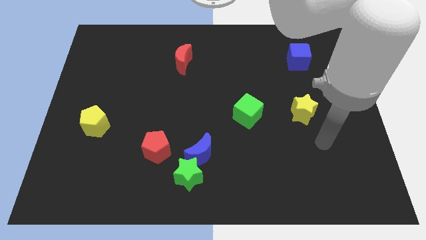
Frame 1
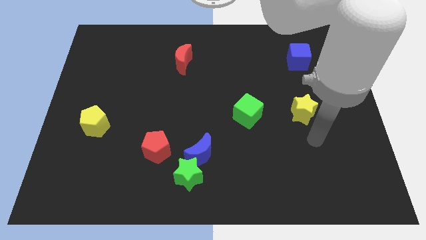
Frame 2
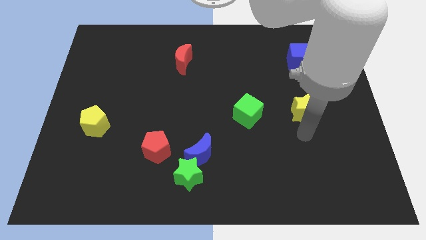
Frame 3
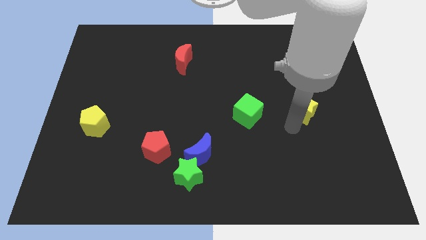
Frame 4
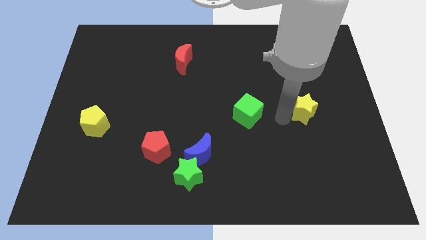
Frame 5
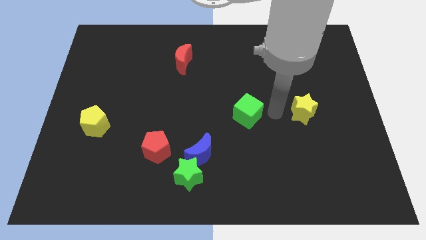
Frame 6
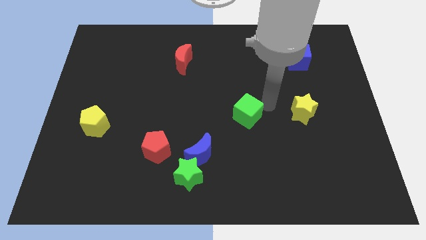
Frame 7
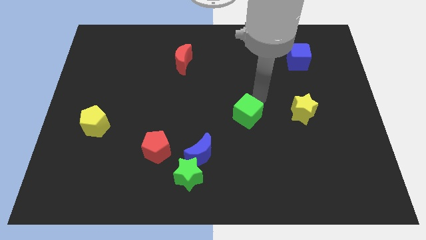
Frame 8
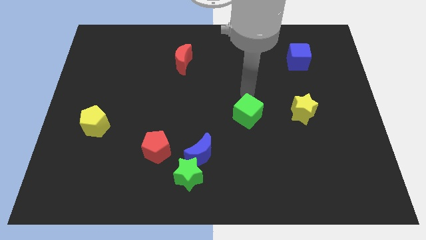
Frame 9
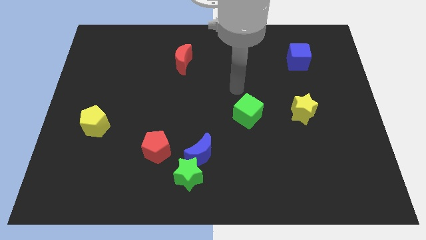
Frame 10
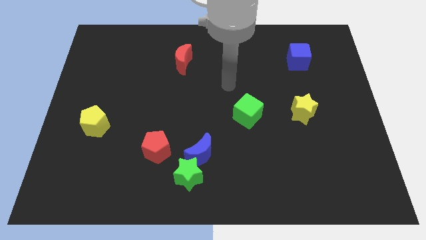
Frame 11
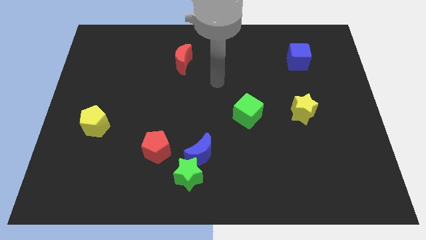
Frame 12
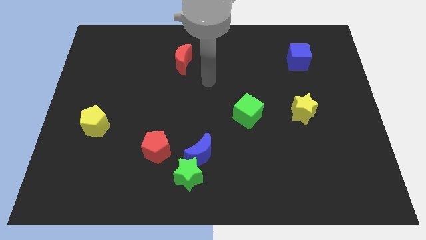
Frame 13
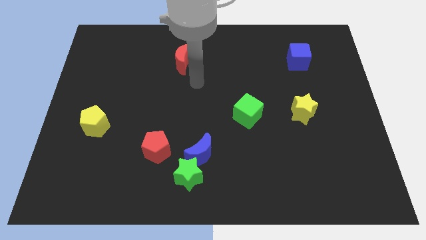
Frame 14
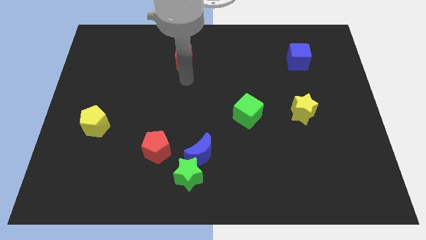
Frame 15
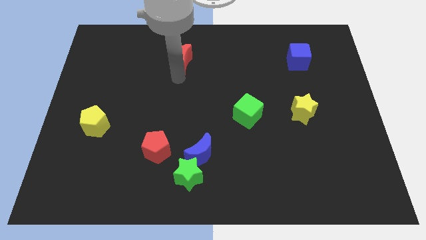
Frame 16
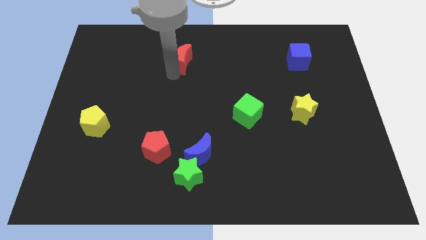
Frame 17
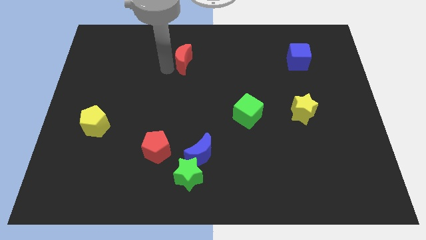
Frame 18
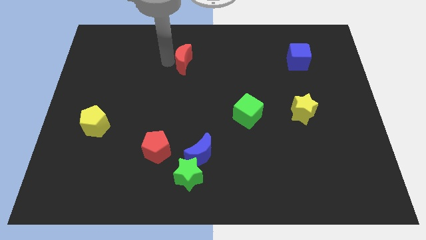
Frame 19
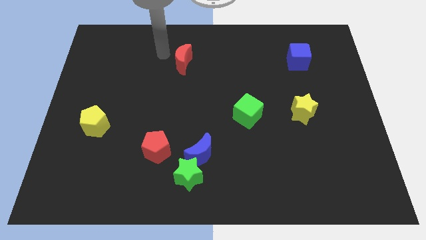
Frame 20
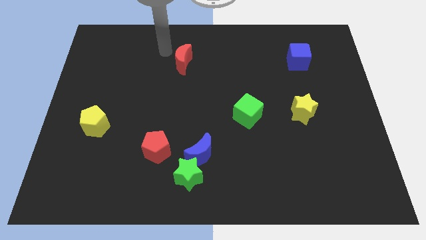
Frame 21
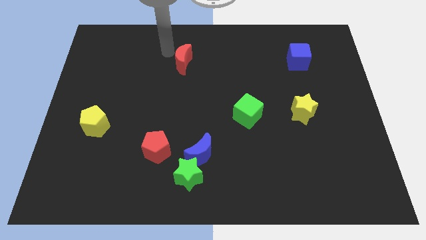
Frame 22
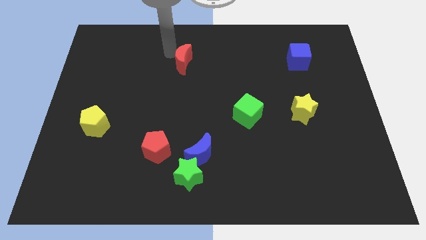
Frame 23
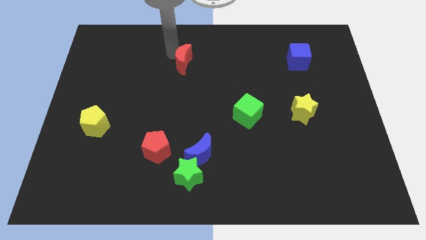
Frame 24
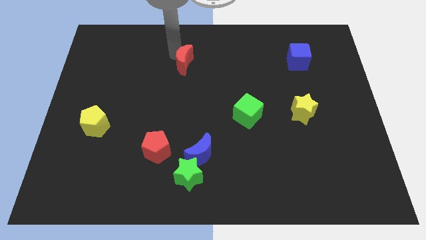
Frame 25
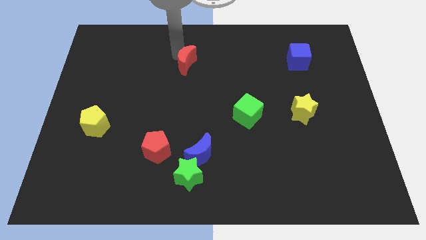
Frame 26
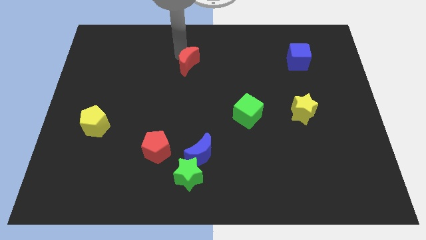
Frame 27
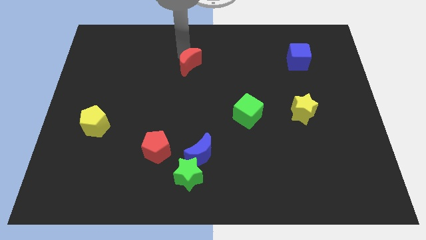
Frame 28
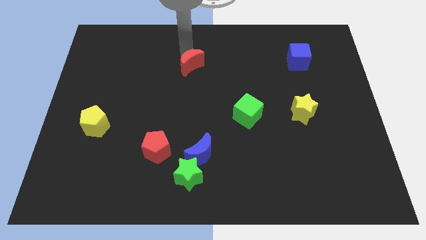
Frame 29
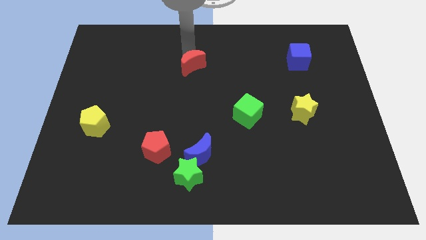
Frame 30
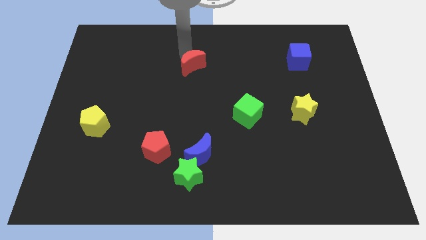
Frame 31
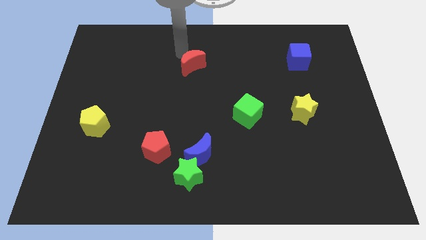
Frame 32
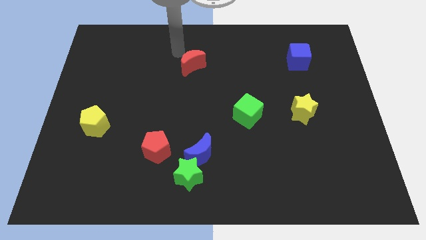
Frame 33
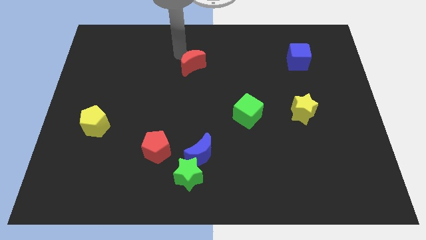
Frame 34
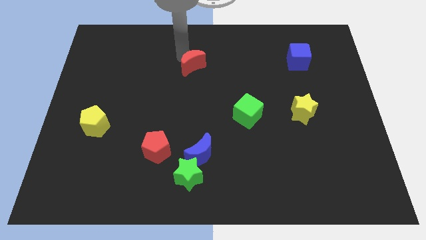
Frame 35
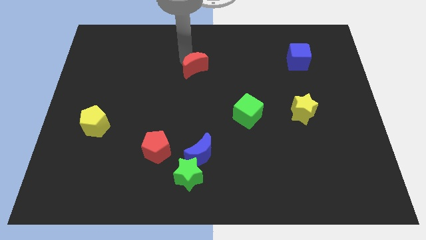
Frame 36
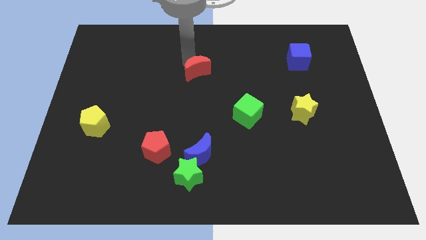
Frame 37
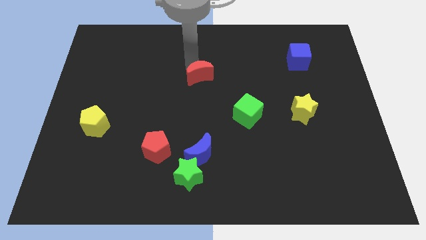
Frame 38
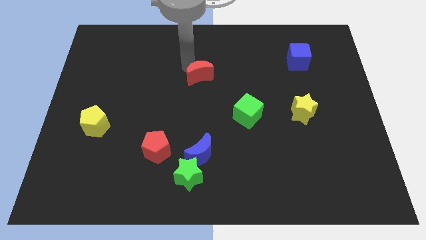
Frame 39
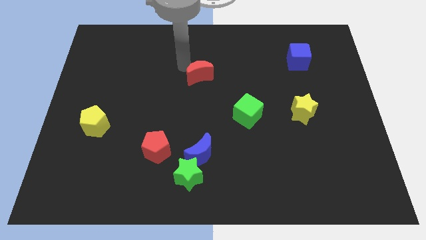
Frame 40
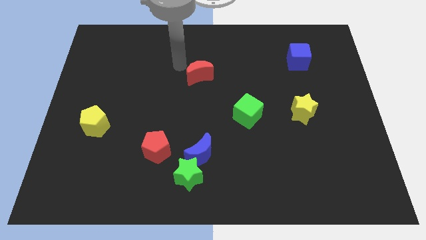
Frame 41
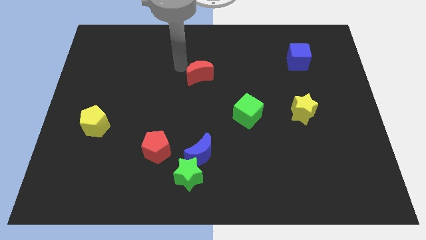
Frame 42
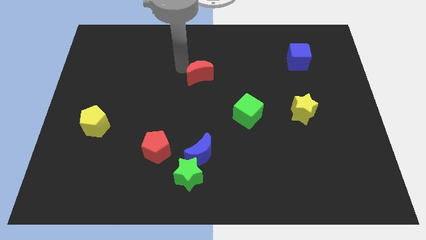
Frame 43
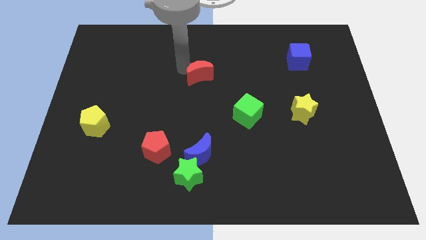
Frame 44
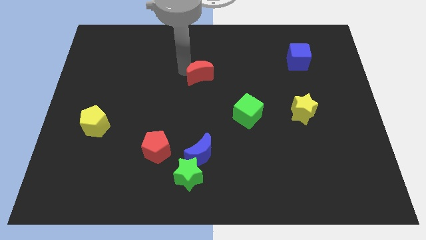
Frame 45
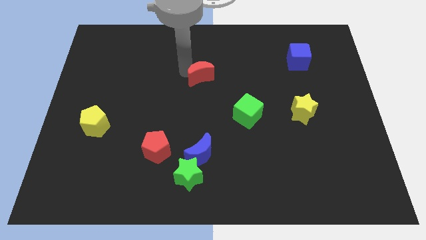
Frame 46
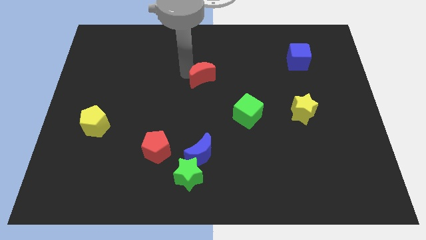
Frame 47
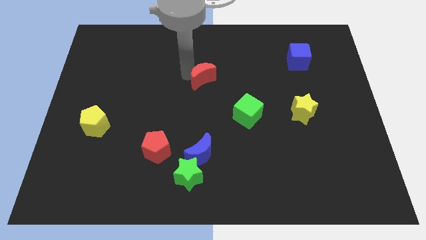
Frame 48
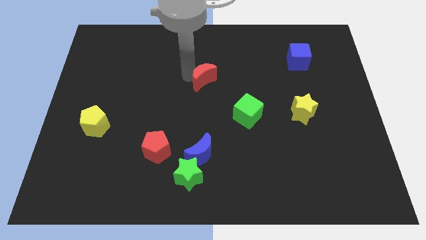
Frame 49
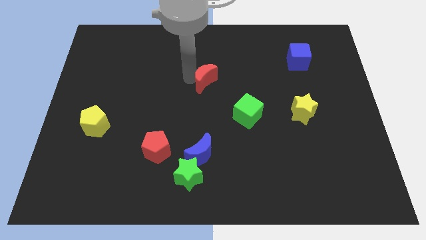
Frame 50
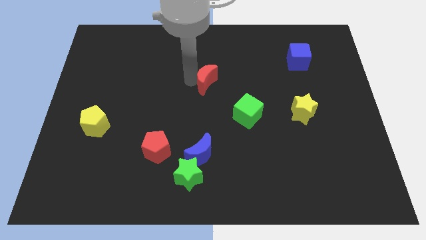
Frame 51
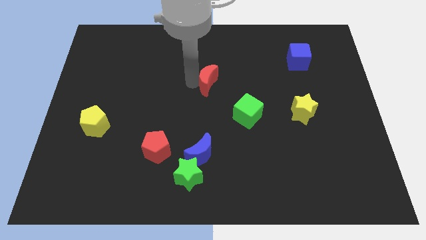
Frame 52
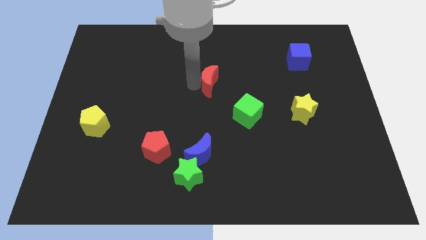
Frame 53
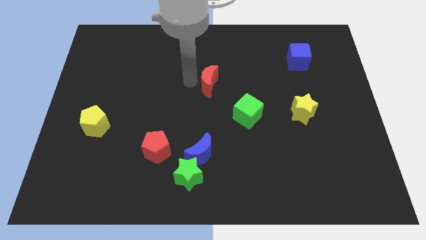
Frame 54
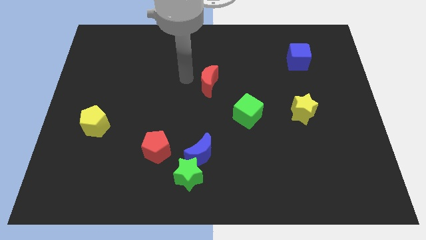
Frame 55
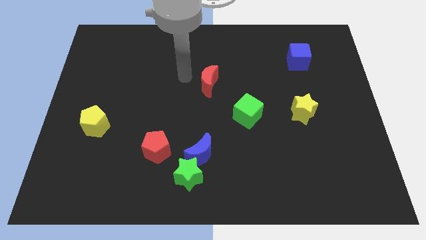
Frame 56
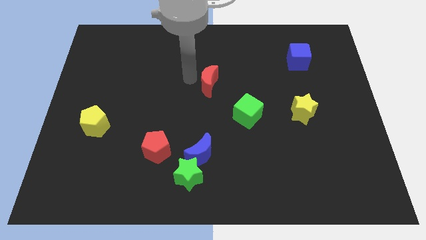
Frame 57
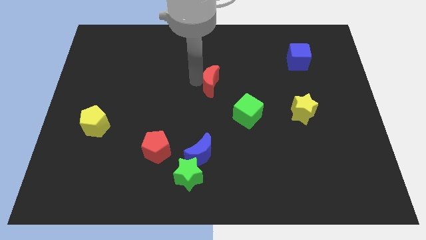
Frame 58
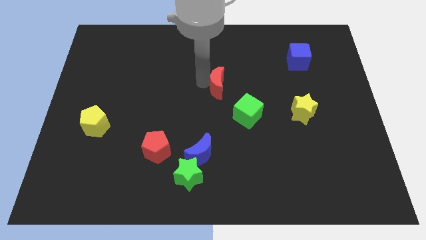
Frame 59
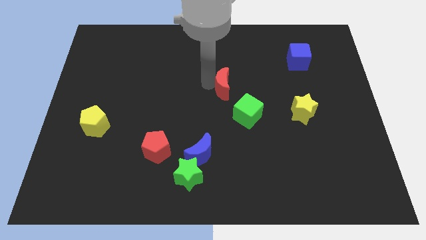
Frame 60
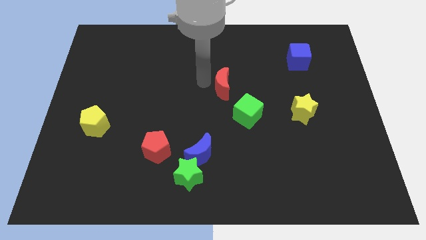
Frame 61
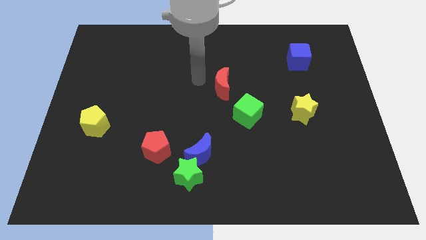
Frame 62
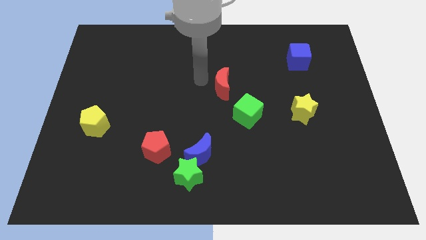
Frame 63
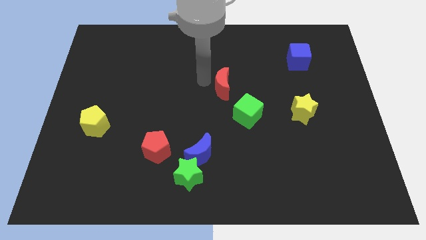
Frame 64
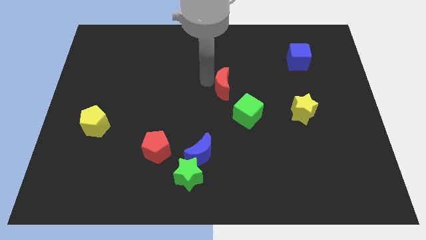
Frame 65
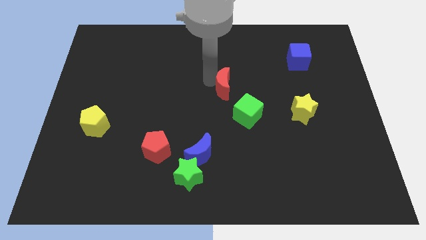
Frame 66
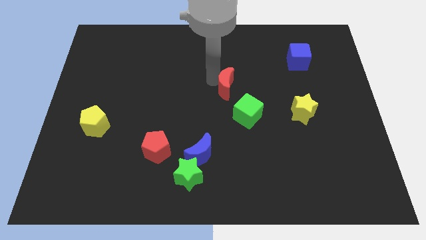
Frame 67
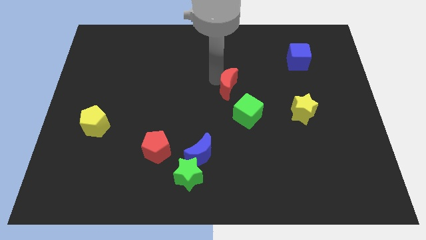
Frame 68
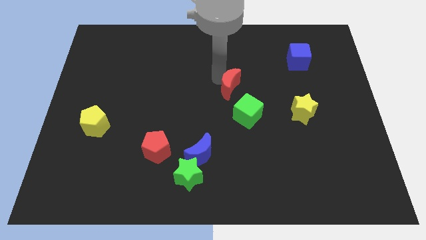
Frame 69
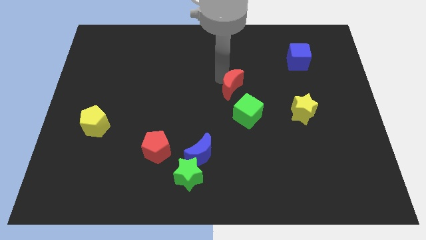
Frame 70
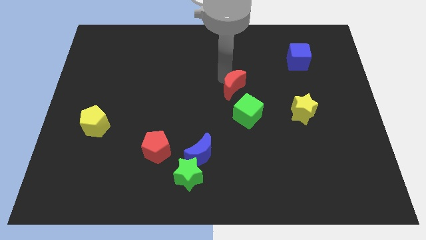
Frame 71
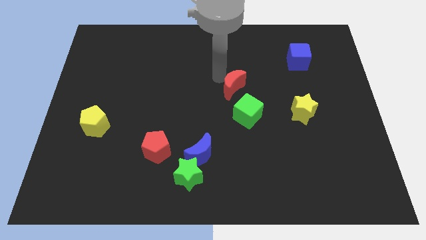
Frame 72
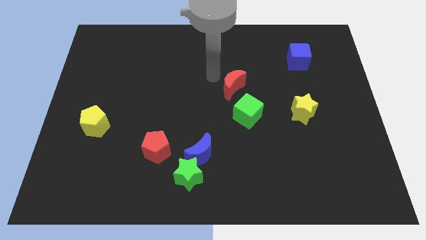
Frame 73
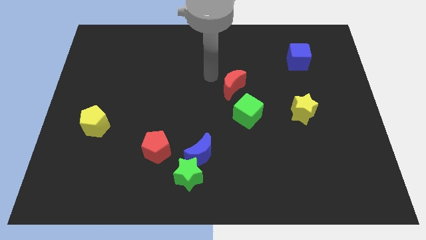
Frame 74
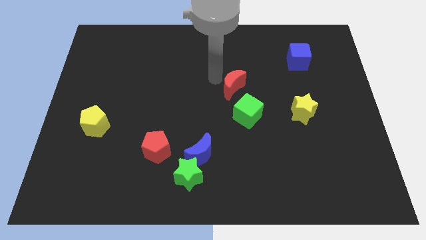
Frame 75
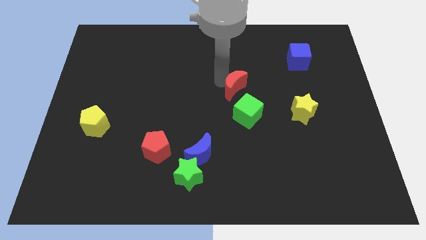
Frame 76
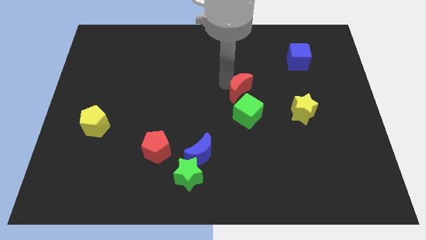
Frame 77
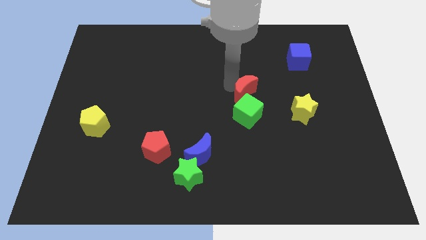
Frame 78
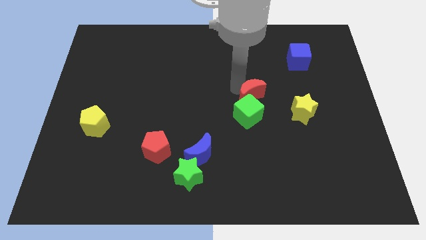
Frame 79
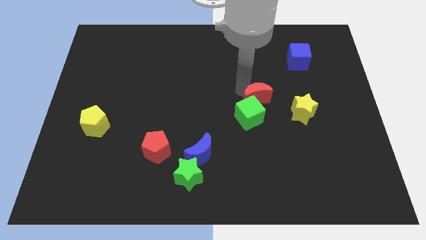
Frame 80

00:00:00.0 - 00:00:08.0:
push the red moon down and then right

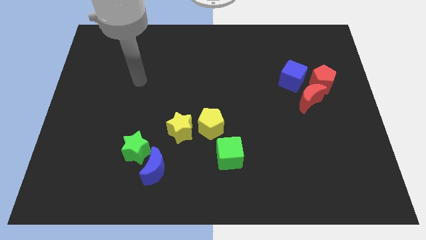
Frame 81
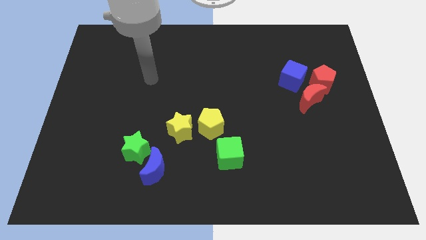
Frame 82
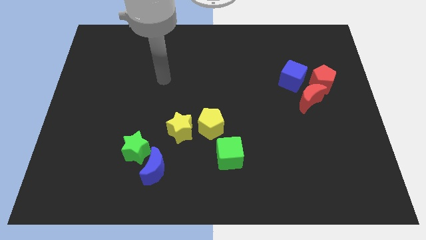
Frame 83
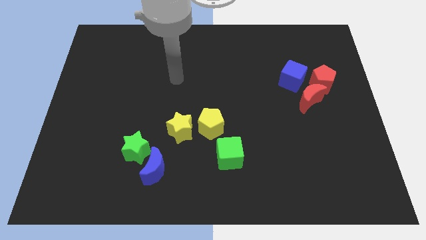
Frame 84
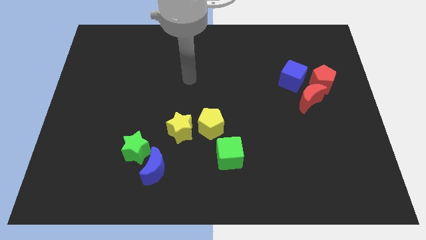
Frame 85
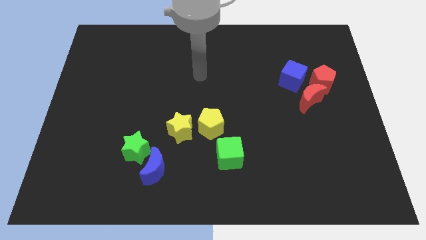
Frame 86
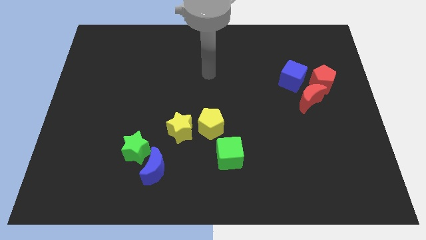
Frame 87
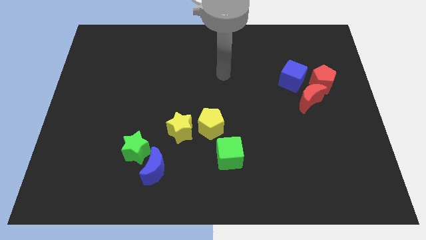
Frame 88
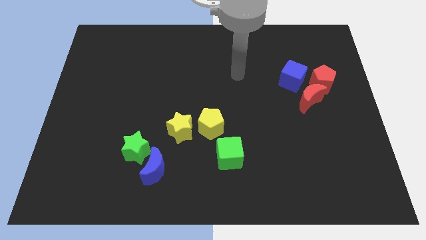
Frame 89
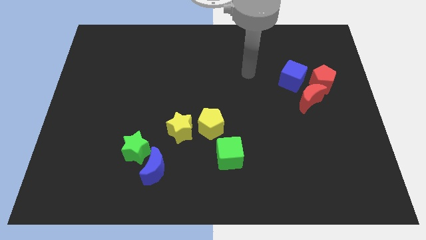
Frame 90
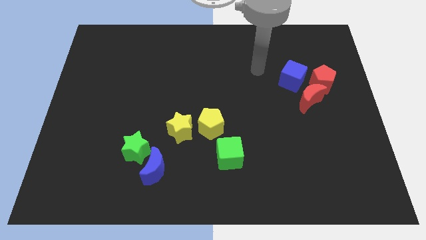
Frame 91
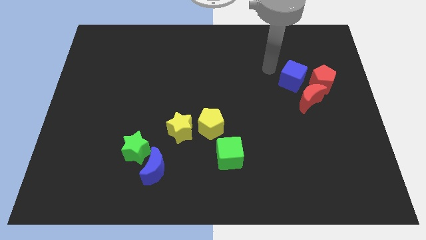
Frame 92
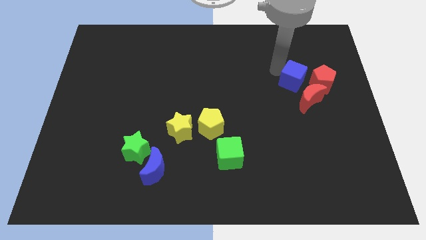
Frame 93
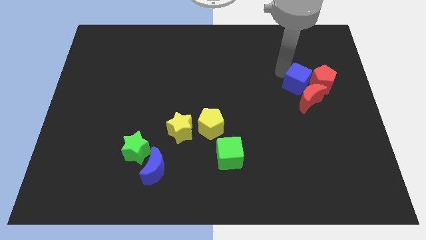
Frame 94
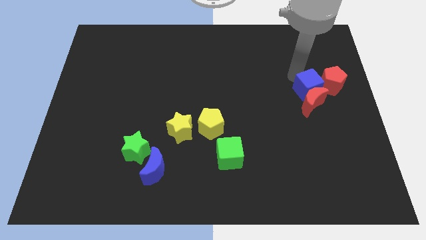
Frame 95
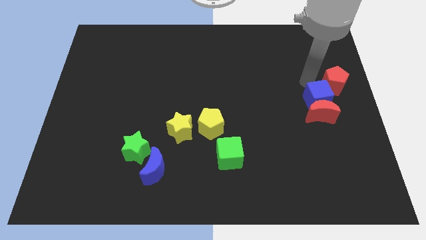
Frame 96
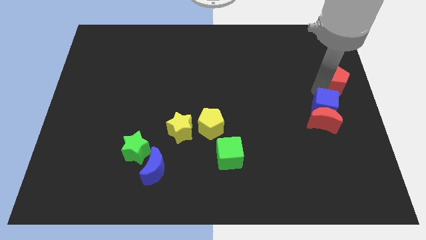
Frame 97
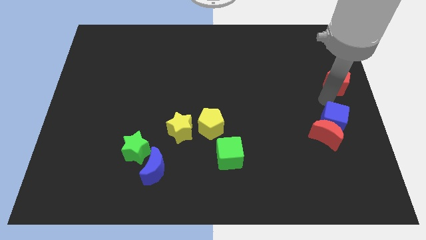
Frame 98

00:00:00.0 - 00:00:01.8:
move the red moon downwards somewhat
